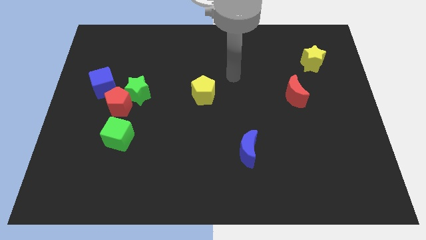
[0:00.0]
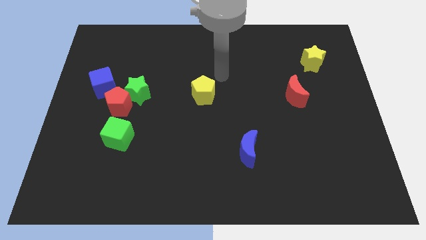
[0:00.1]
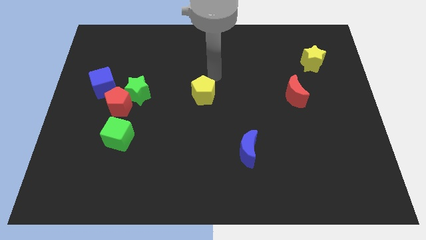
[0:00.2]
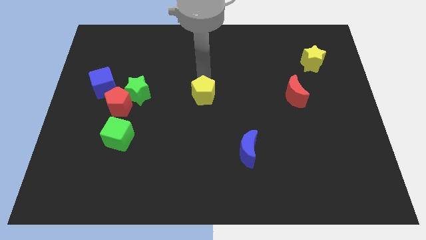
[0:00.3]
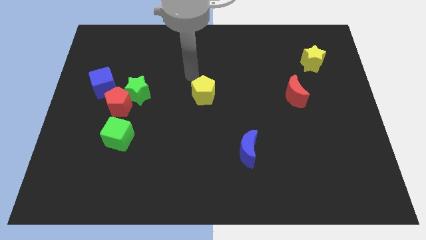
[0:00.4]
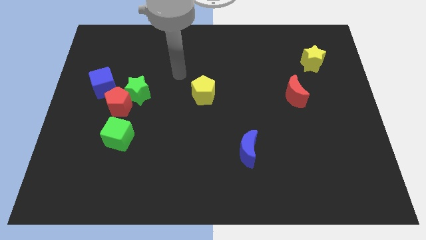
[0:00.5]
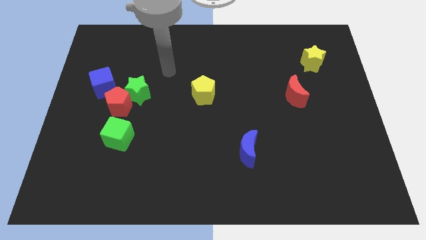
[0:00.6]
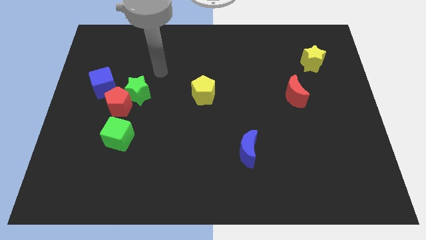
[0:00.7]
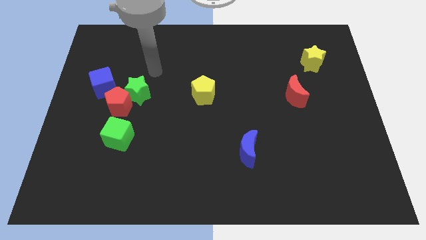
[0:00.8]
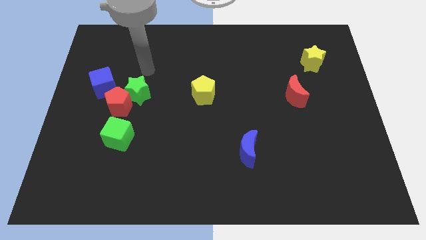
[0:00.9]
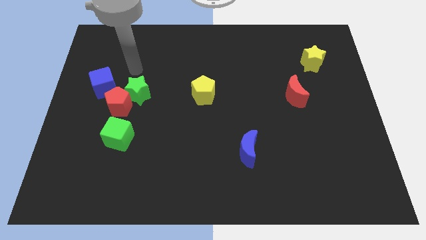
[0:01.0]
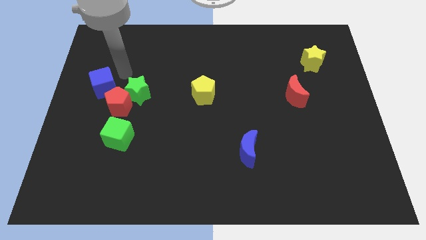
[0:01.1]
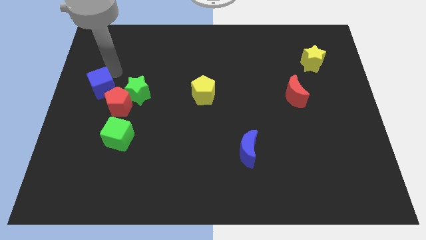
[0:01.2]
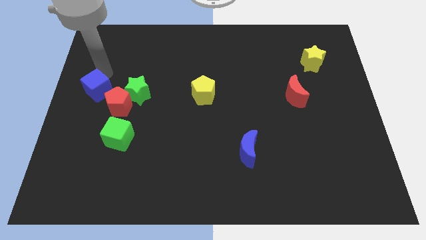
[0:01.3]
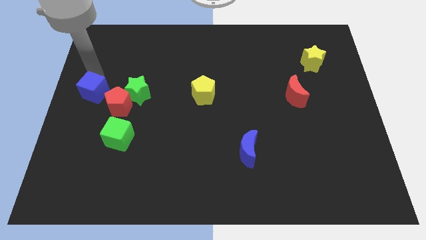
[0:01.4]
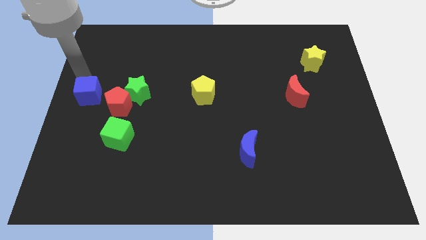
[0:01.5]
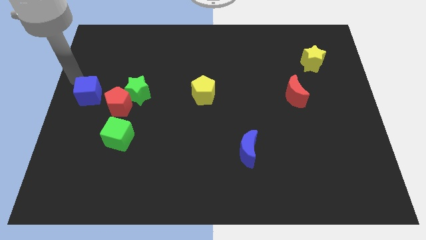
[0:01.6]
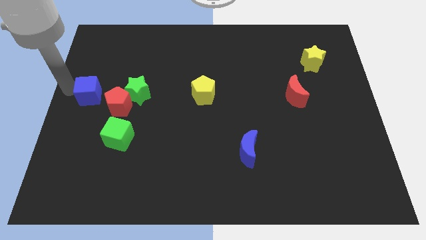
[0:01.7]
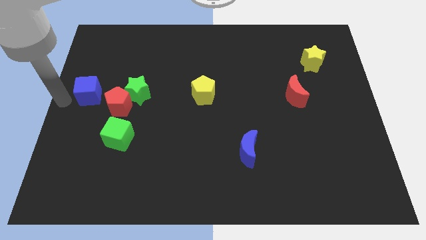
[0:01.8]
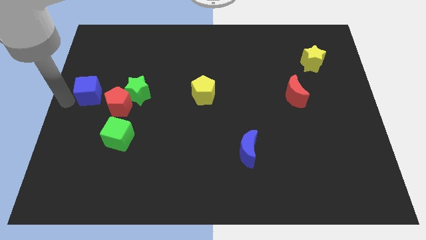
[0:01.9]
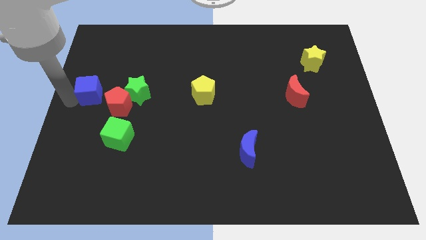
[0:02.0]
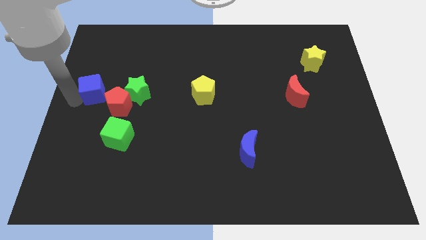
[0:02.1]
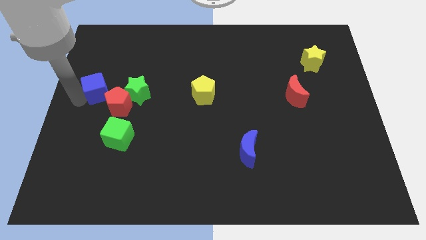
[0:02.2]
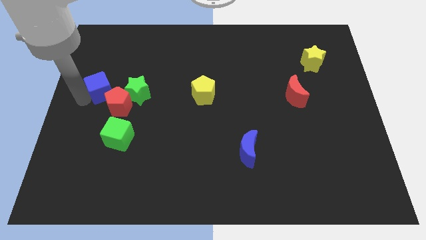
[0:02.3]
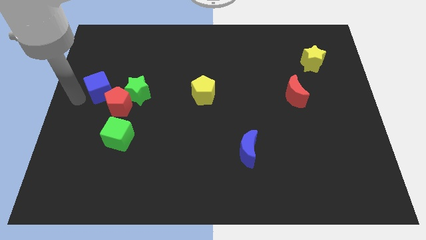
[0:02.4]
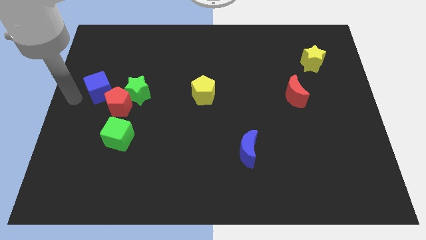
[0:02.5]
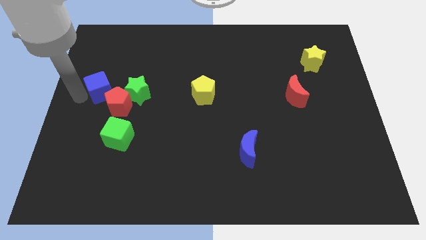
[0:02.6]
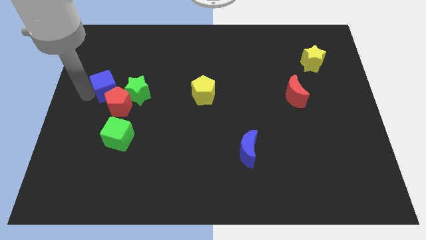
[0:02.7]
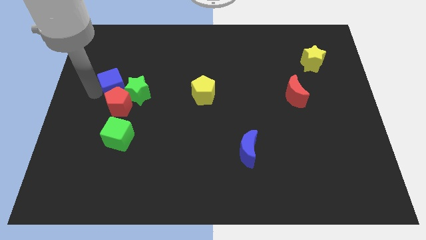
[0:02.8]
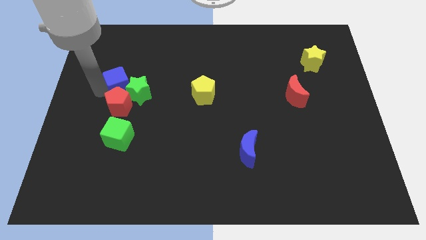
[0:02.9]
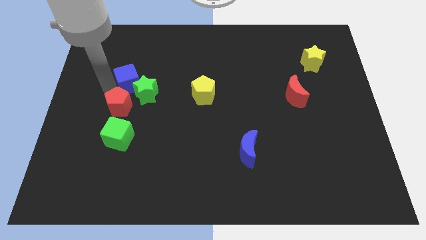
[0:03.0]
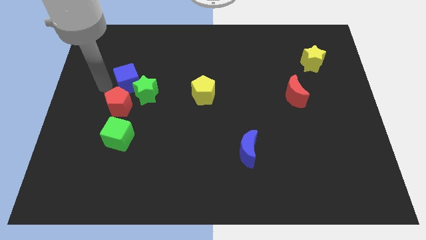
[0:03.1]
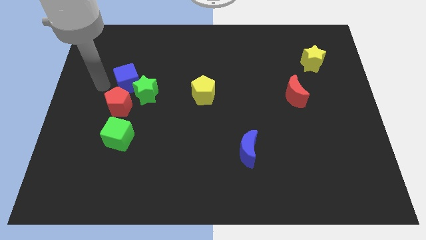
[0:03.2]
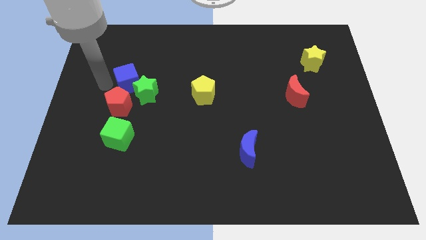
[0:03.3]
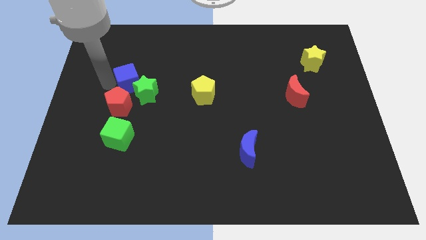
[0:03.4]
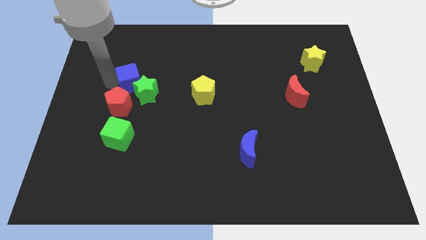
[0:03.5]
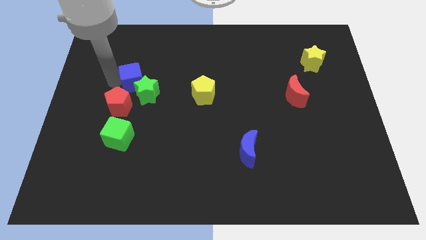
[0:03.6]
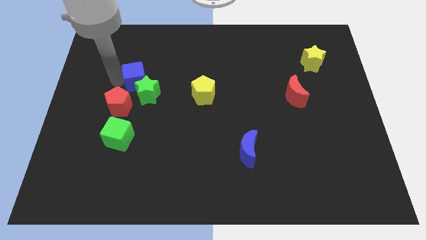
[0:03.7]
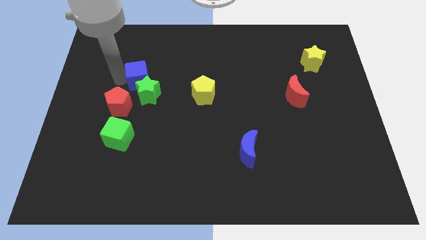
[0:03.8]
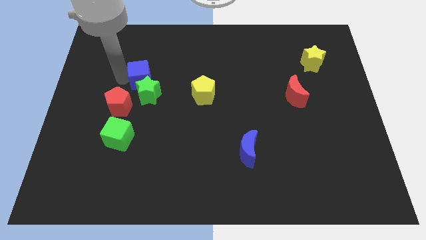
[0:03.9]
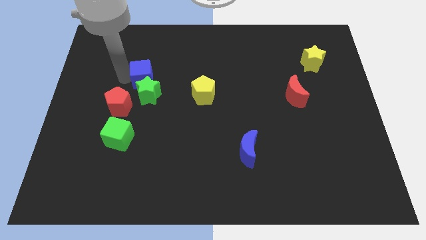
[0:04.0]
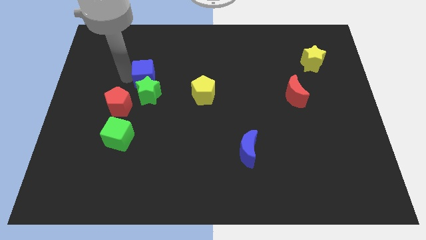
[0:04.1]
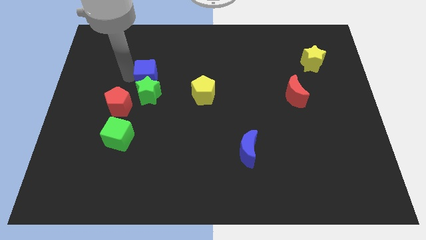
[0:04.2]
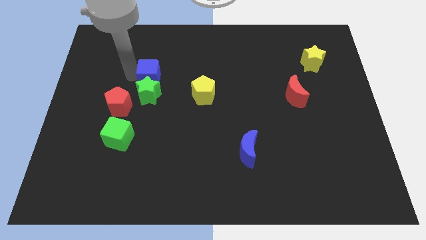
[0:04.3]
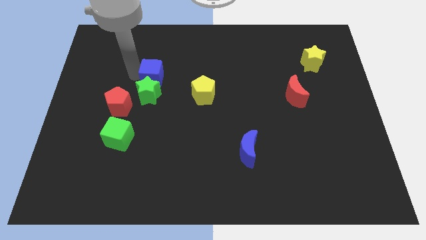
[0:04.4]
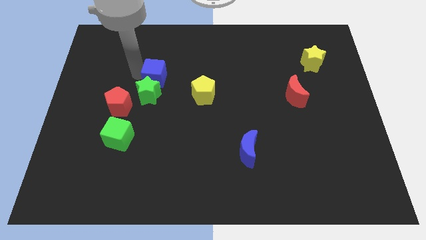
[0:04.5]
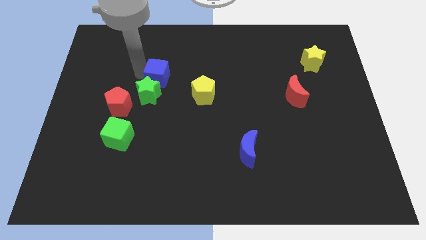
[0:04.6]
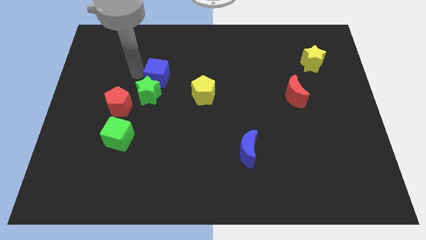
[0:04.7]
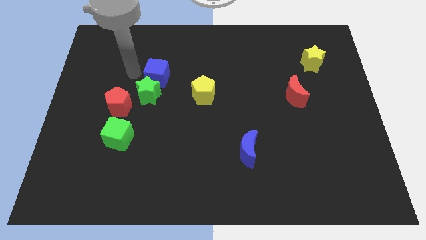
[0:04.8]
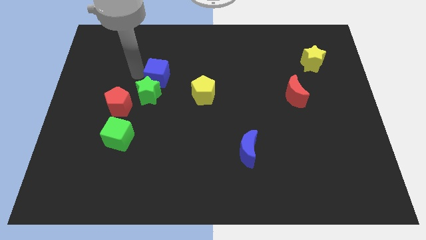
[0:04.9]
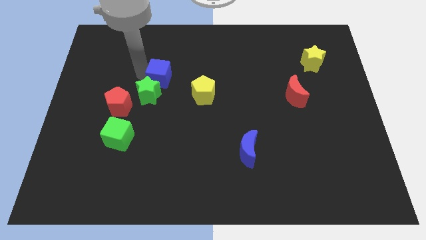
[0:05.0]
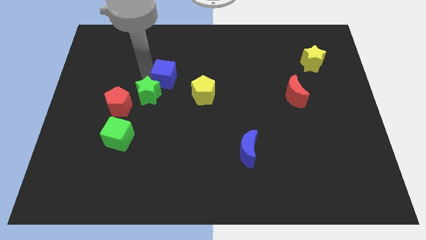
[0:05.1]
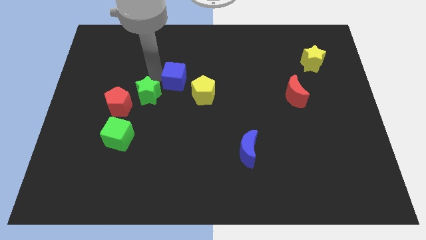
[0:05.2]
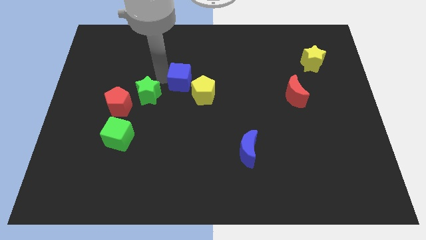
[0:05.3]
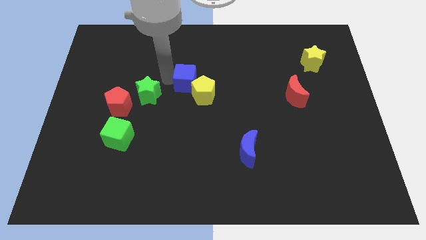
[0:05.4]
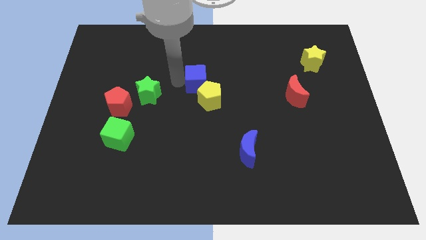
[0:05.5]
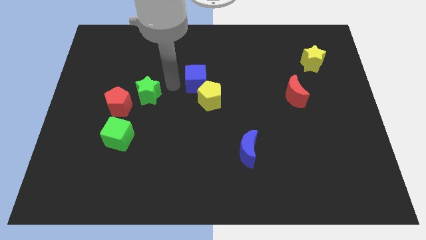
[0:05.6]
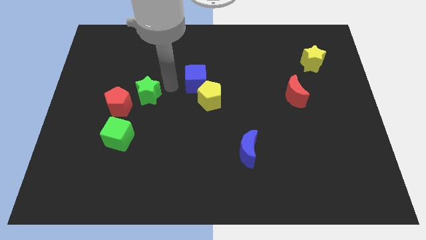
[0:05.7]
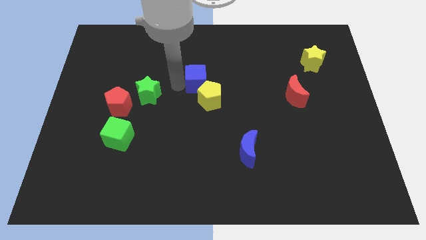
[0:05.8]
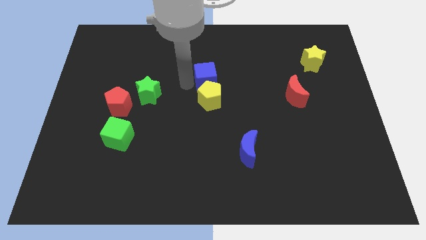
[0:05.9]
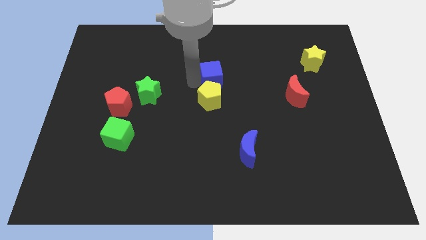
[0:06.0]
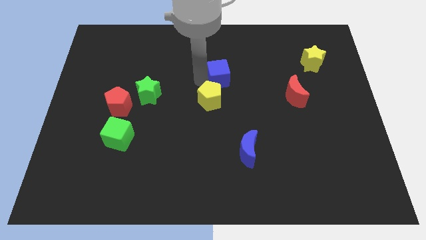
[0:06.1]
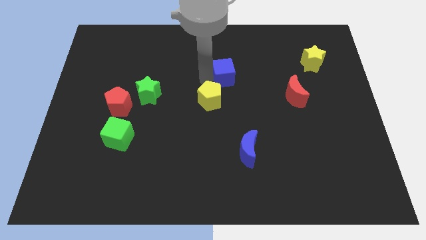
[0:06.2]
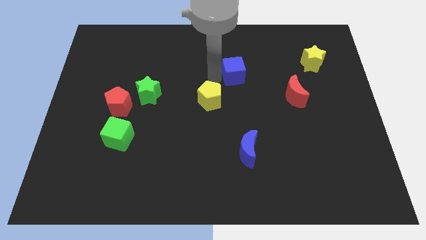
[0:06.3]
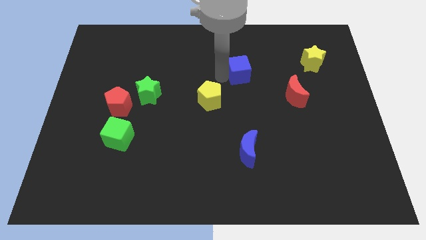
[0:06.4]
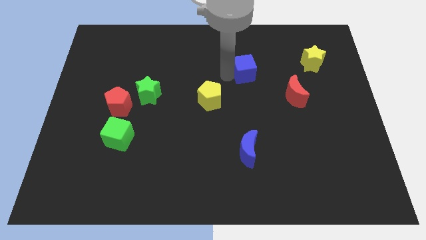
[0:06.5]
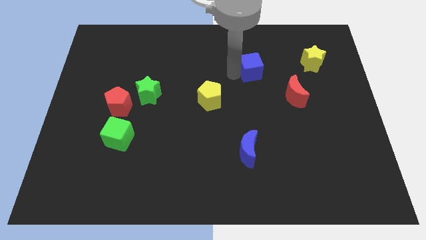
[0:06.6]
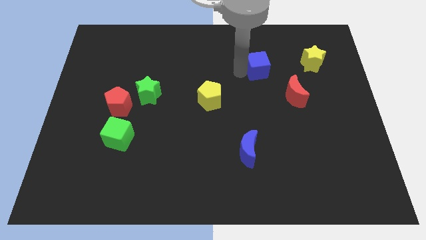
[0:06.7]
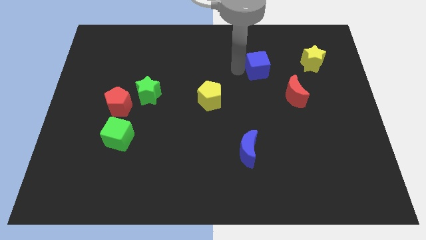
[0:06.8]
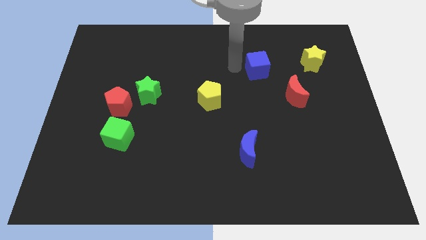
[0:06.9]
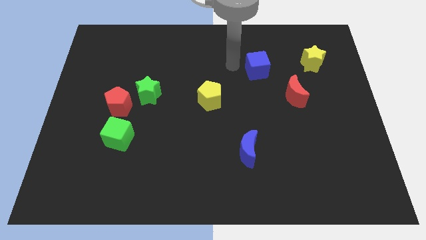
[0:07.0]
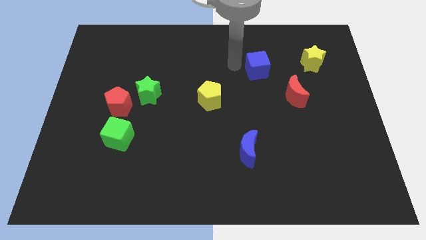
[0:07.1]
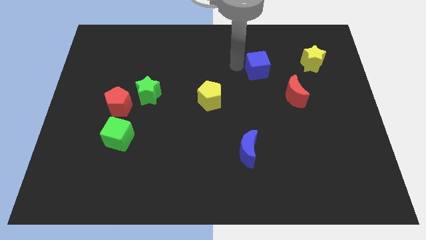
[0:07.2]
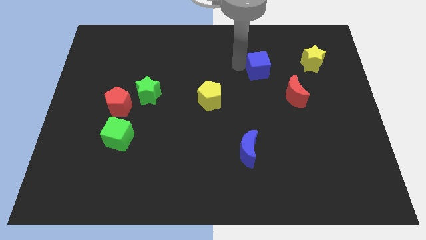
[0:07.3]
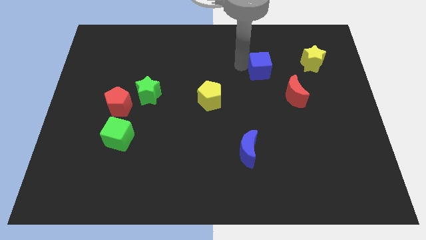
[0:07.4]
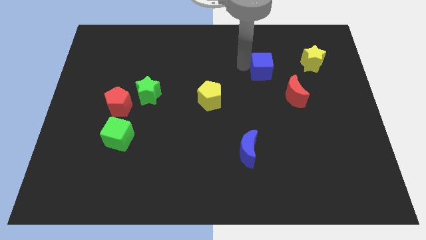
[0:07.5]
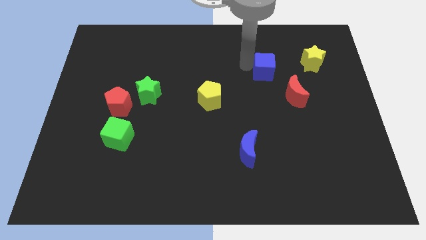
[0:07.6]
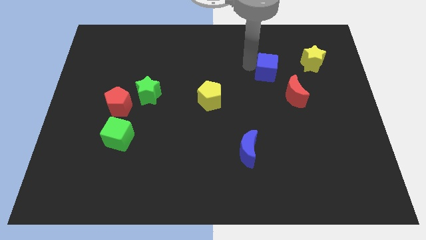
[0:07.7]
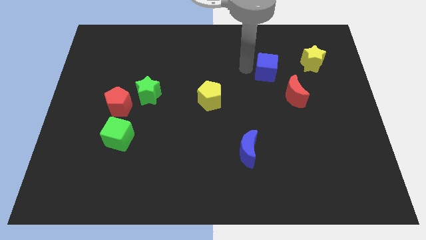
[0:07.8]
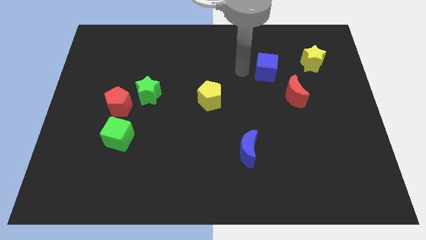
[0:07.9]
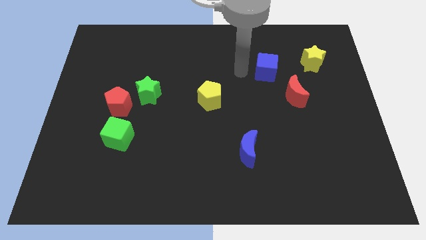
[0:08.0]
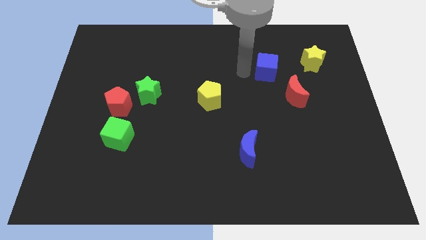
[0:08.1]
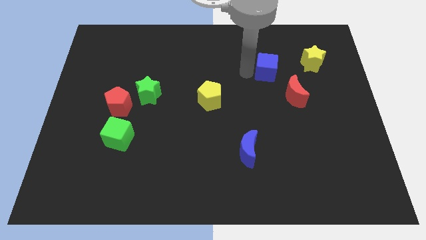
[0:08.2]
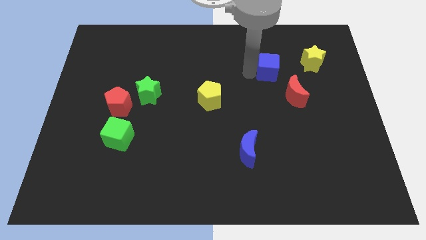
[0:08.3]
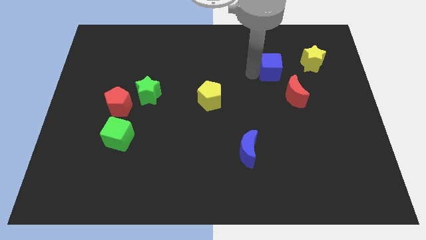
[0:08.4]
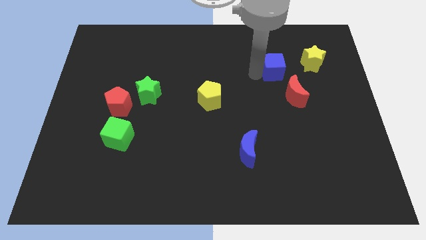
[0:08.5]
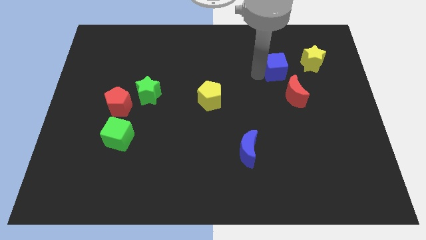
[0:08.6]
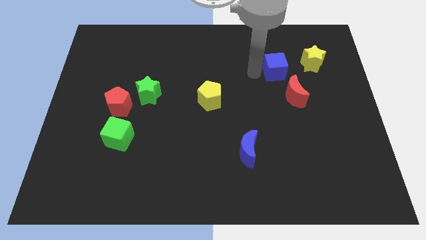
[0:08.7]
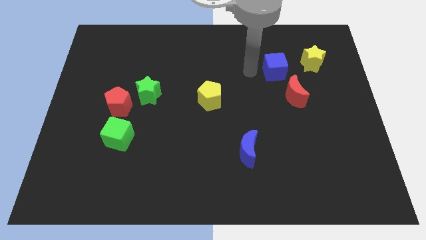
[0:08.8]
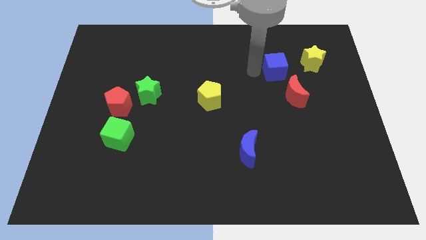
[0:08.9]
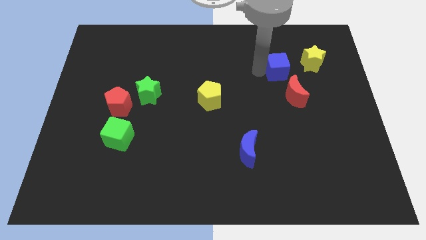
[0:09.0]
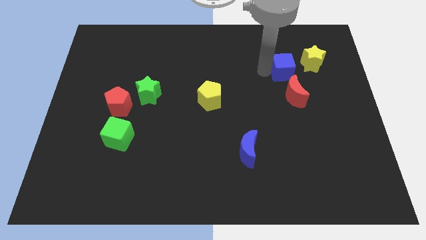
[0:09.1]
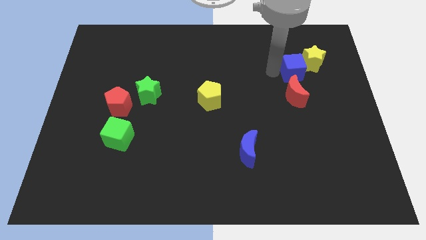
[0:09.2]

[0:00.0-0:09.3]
push the blue cube to the yellow star
